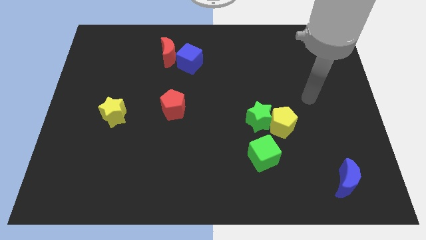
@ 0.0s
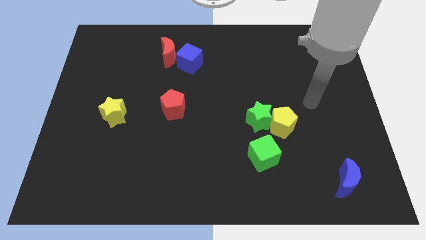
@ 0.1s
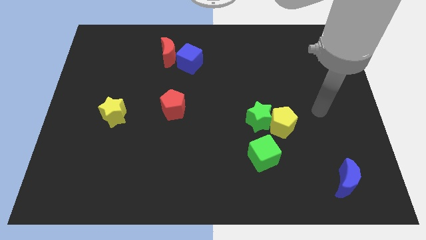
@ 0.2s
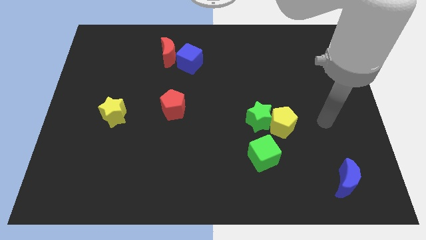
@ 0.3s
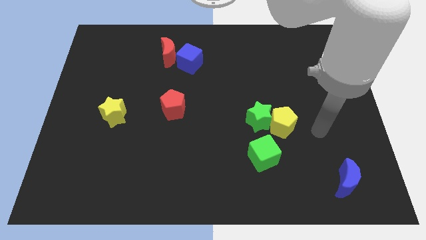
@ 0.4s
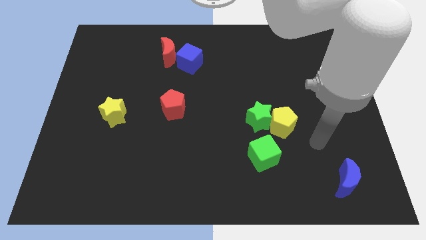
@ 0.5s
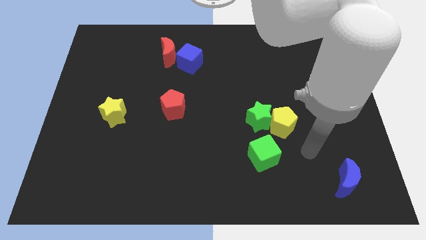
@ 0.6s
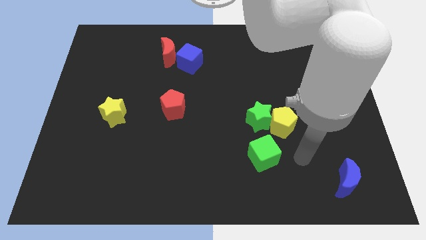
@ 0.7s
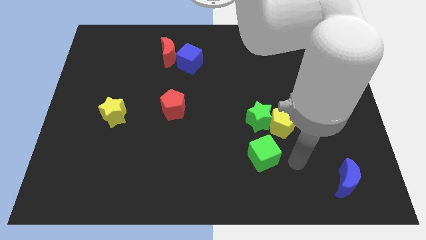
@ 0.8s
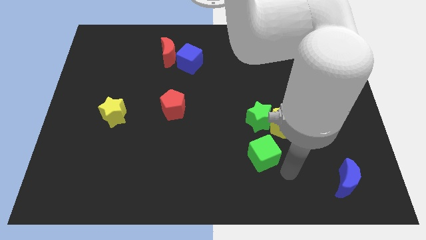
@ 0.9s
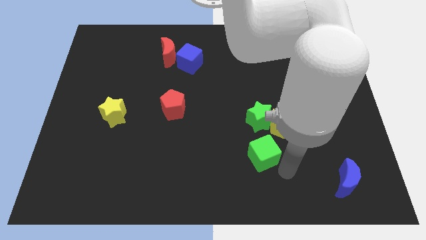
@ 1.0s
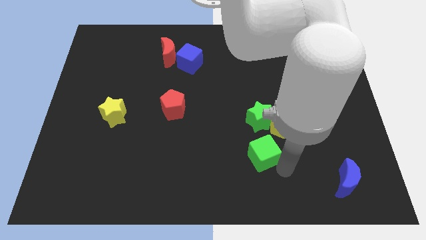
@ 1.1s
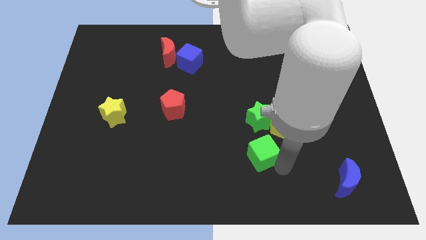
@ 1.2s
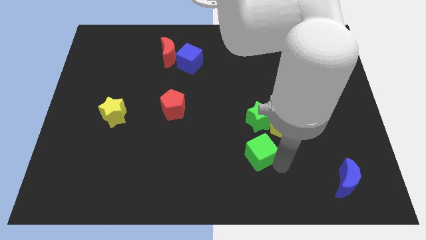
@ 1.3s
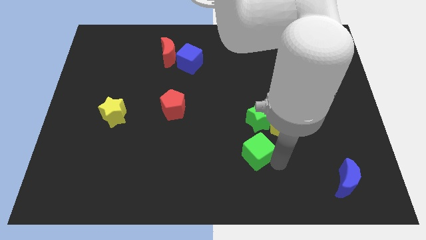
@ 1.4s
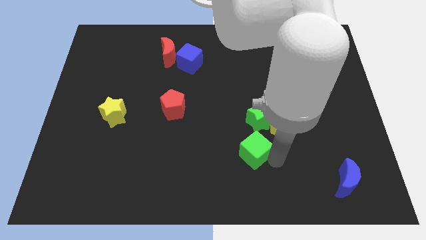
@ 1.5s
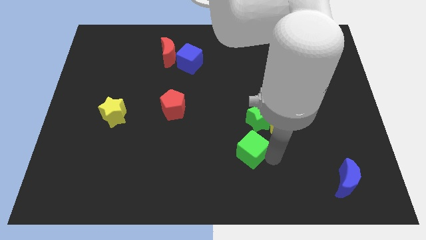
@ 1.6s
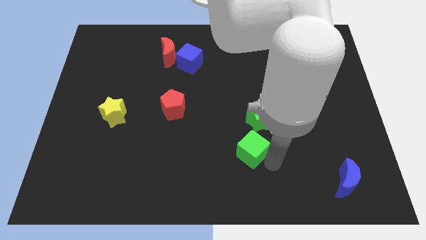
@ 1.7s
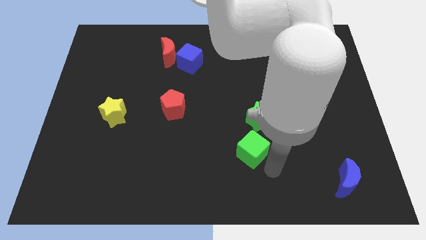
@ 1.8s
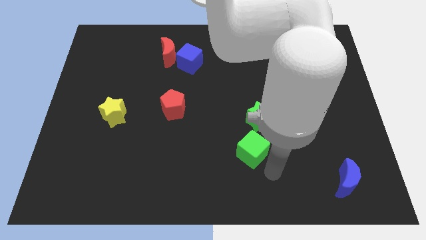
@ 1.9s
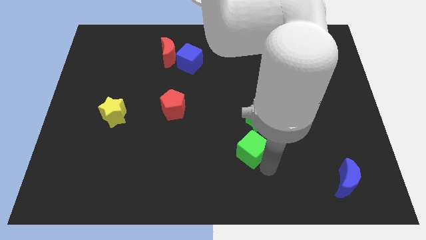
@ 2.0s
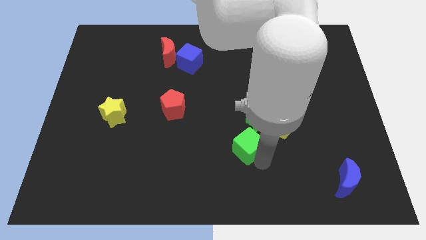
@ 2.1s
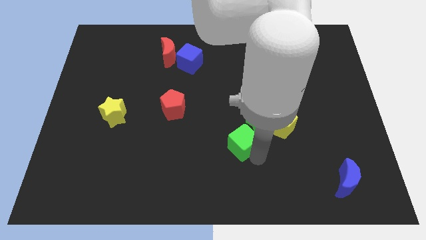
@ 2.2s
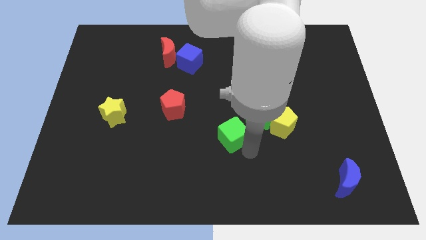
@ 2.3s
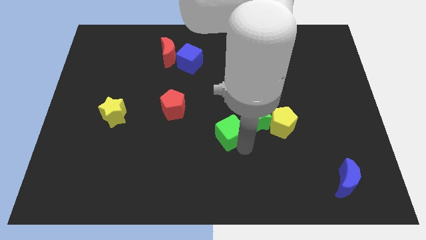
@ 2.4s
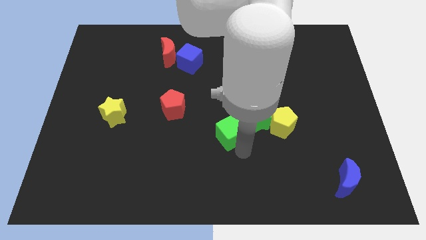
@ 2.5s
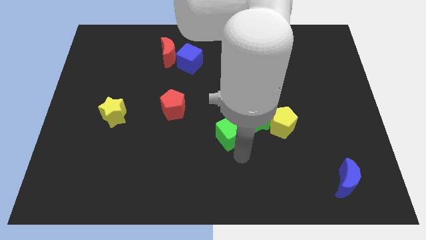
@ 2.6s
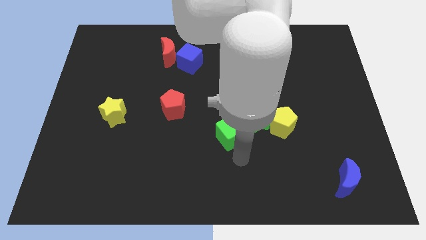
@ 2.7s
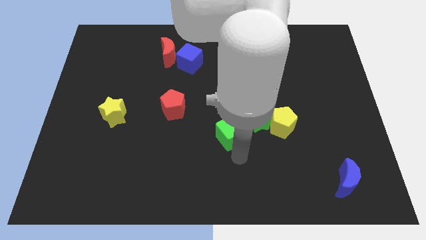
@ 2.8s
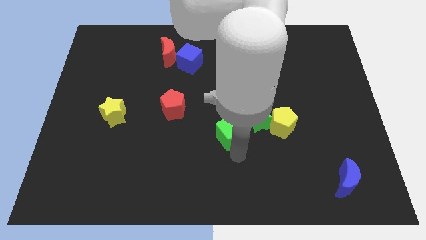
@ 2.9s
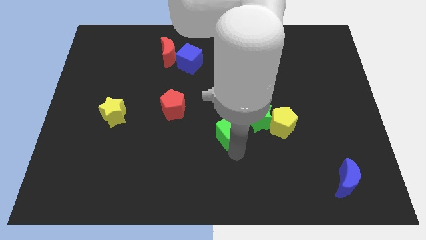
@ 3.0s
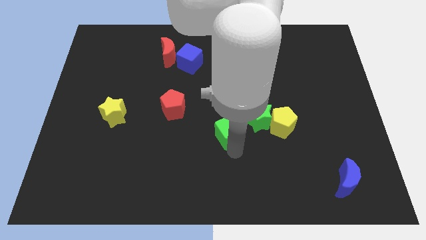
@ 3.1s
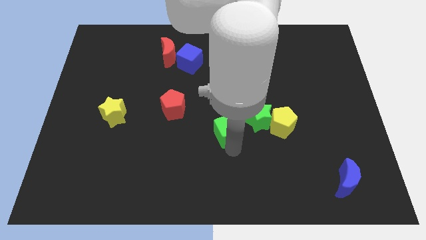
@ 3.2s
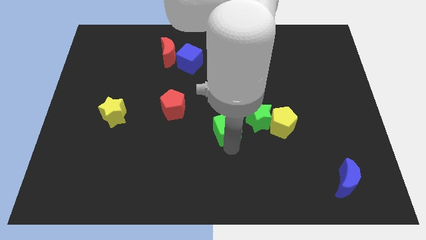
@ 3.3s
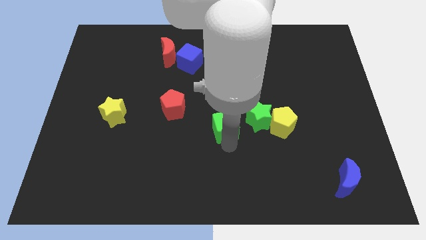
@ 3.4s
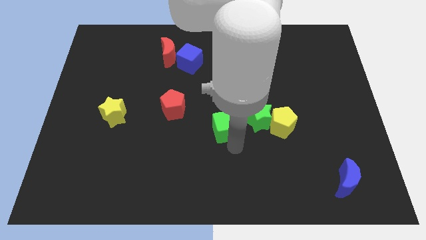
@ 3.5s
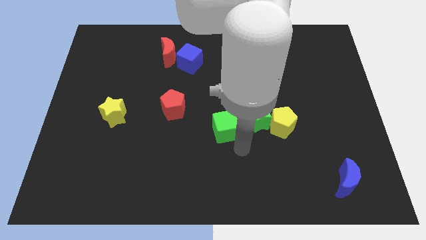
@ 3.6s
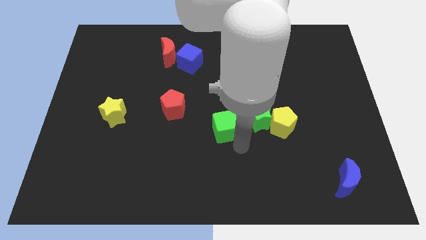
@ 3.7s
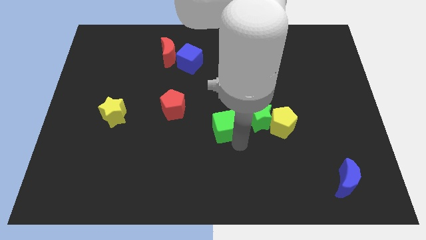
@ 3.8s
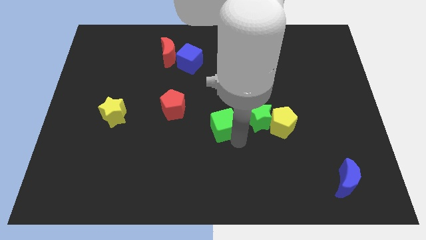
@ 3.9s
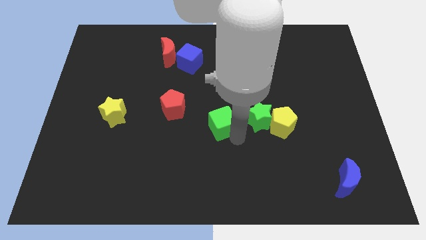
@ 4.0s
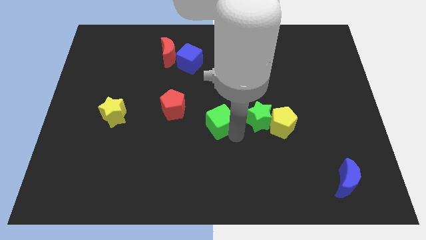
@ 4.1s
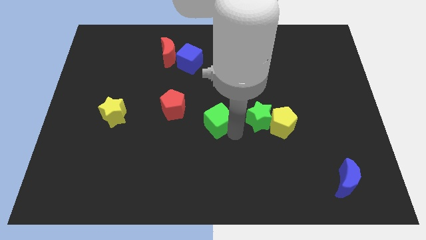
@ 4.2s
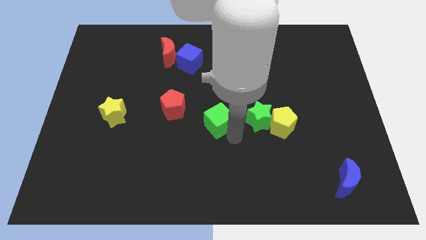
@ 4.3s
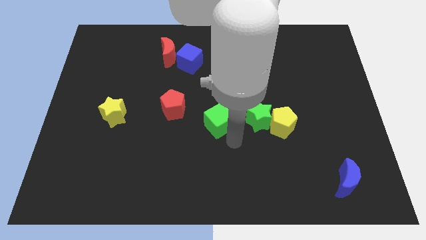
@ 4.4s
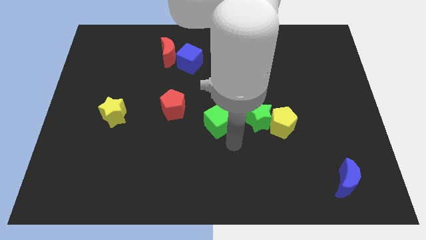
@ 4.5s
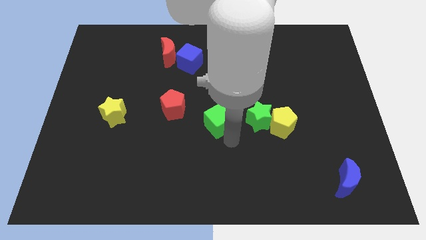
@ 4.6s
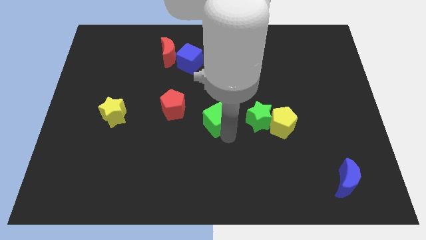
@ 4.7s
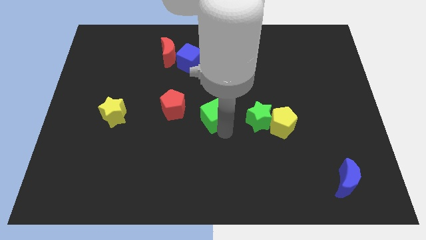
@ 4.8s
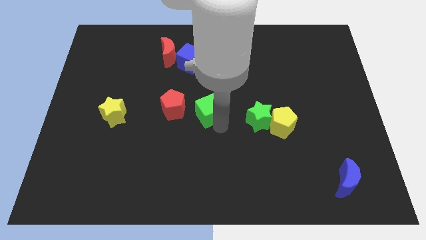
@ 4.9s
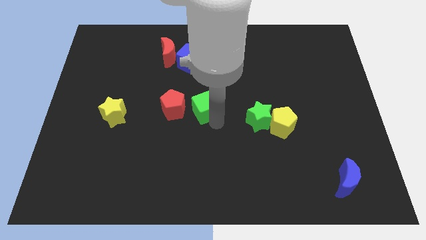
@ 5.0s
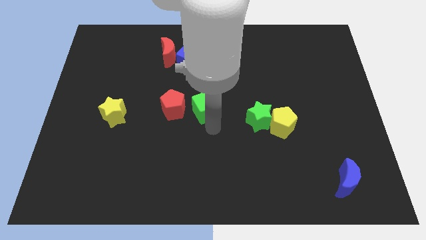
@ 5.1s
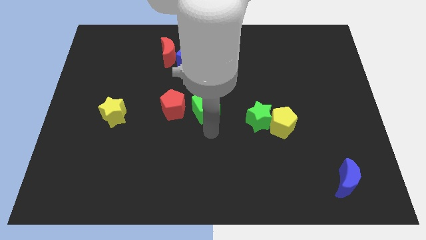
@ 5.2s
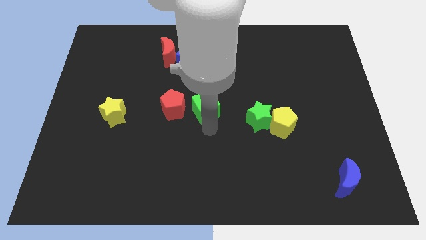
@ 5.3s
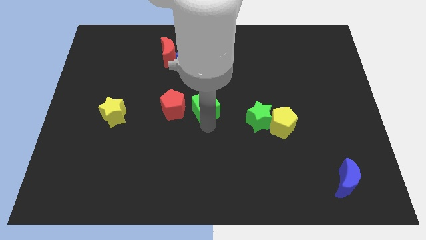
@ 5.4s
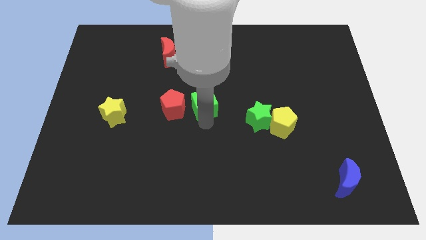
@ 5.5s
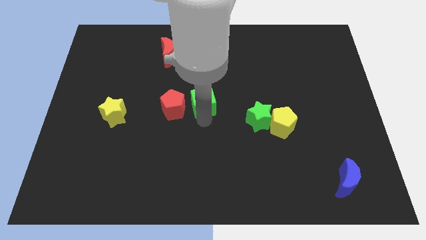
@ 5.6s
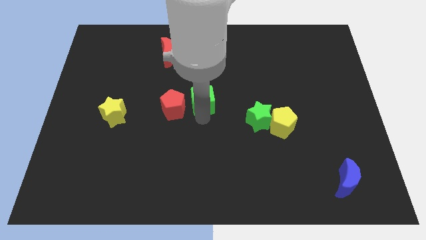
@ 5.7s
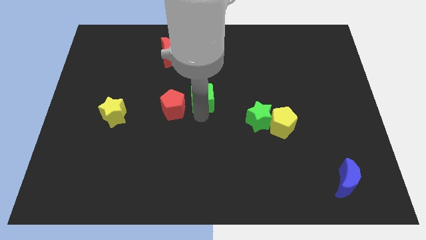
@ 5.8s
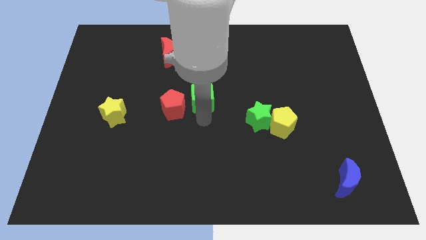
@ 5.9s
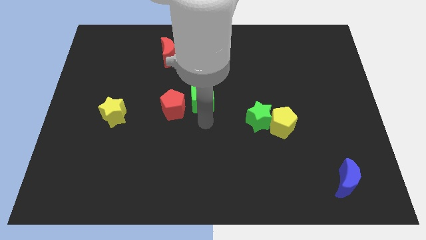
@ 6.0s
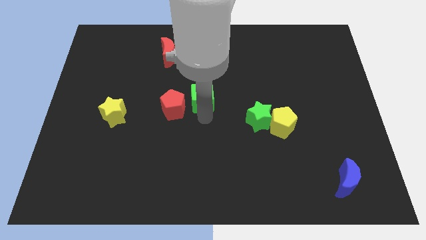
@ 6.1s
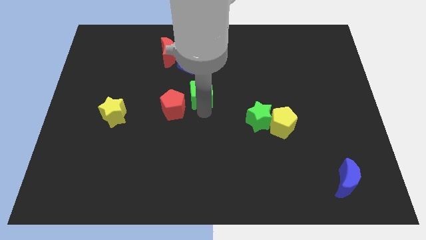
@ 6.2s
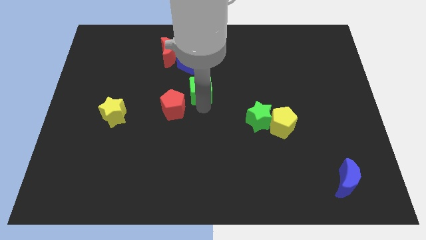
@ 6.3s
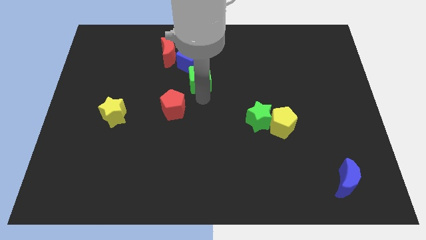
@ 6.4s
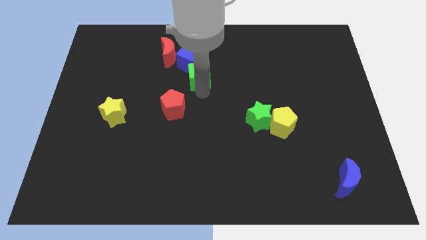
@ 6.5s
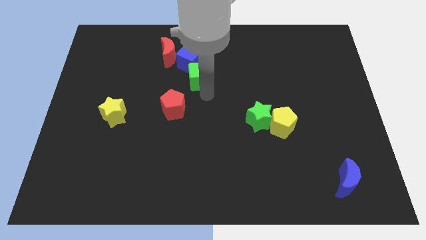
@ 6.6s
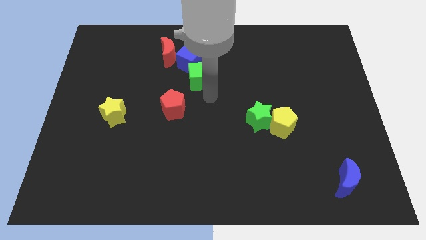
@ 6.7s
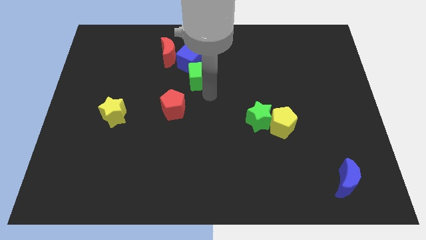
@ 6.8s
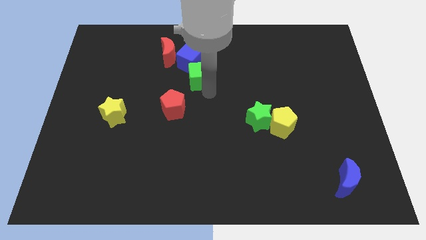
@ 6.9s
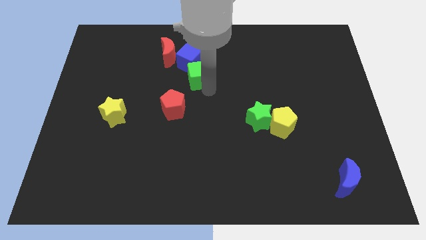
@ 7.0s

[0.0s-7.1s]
move the green cube to the blue cube
